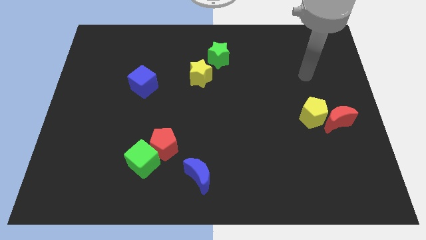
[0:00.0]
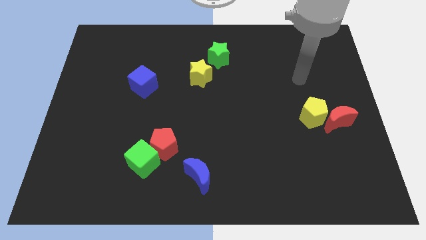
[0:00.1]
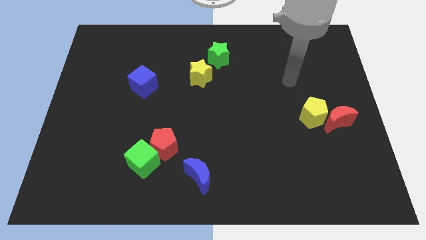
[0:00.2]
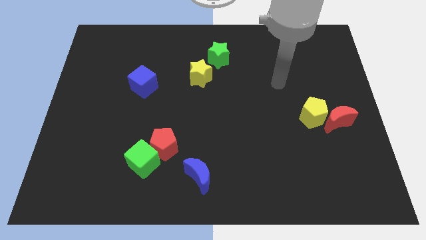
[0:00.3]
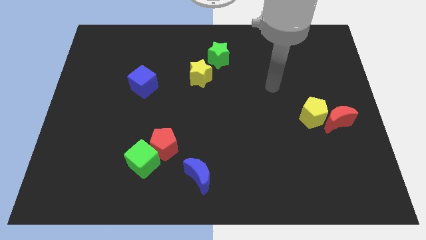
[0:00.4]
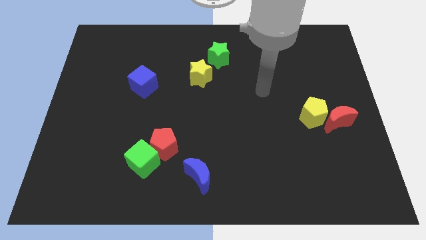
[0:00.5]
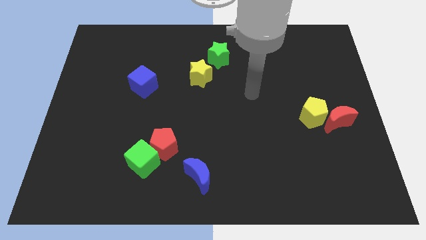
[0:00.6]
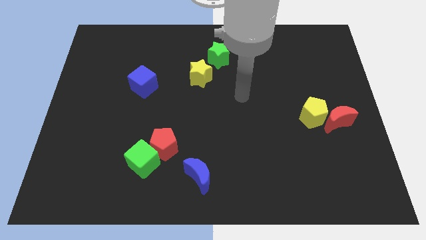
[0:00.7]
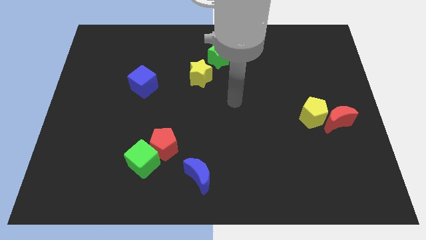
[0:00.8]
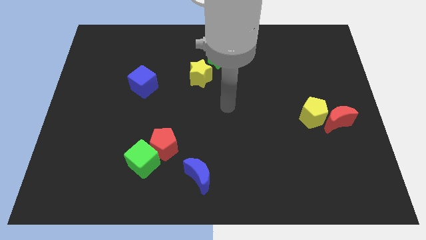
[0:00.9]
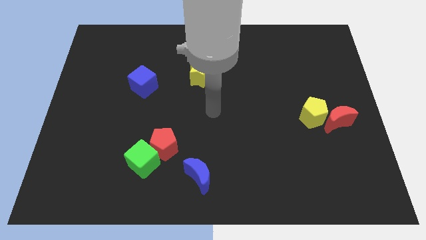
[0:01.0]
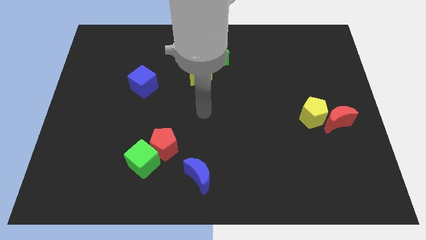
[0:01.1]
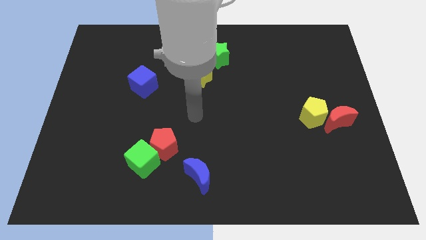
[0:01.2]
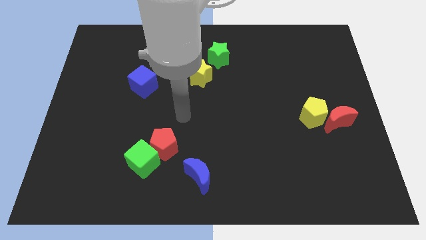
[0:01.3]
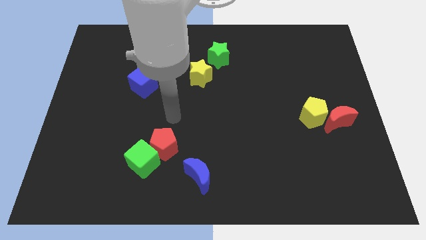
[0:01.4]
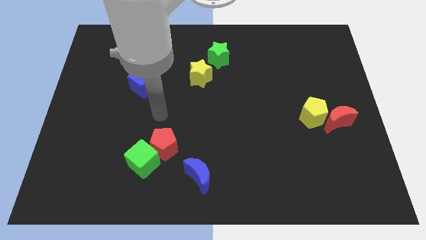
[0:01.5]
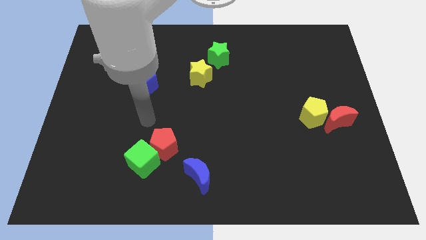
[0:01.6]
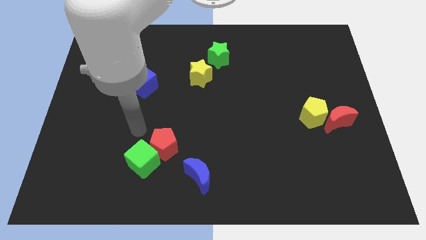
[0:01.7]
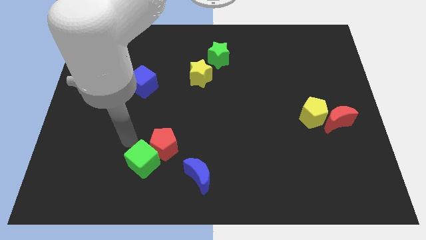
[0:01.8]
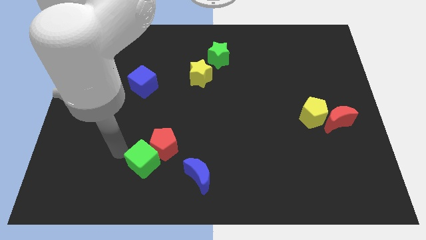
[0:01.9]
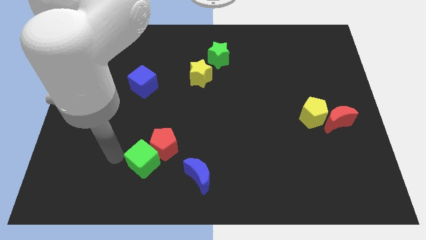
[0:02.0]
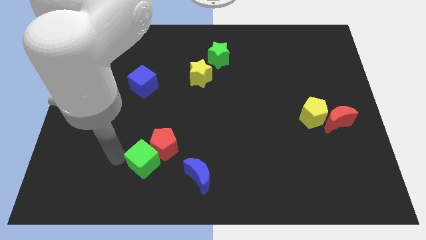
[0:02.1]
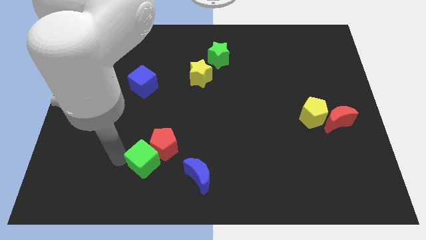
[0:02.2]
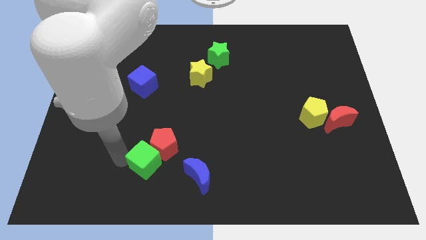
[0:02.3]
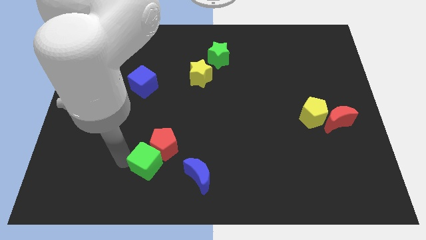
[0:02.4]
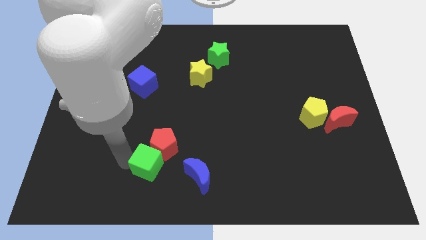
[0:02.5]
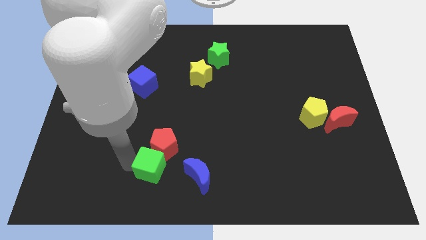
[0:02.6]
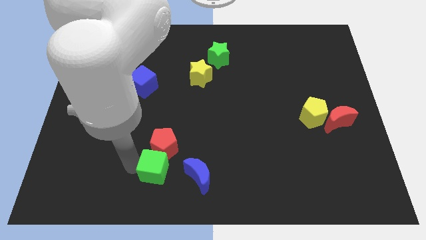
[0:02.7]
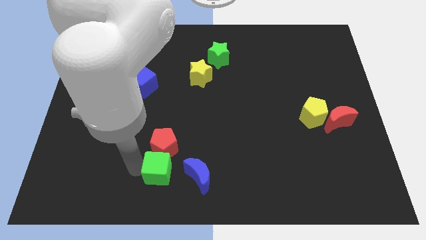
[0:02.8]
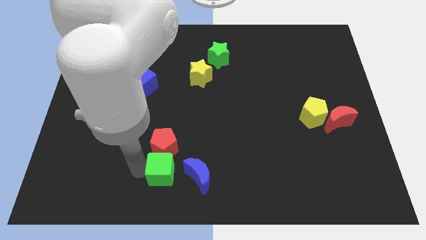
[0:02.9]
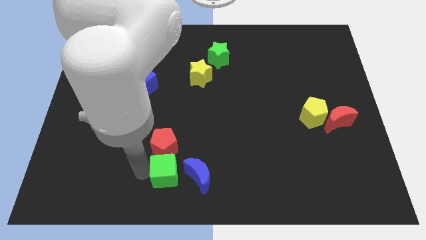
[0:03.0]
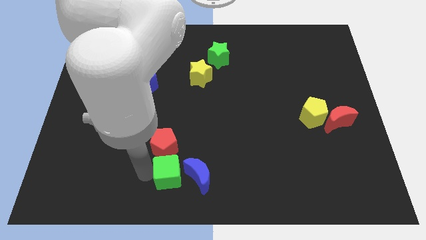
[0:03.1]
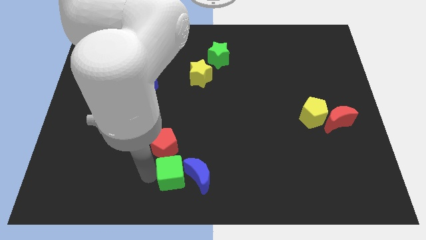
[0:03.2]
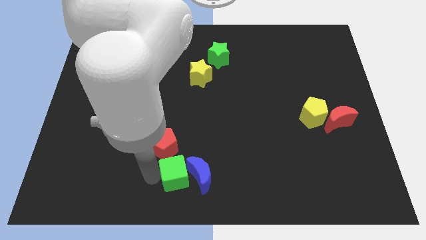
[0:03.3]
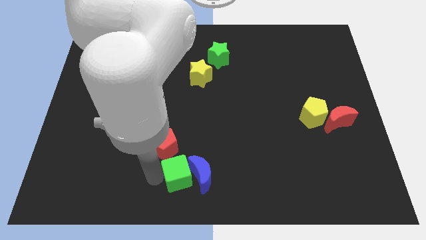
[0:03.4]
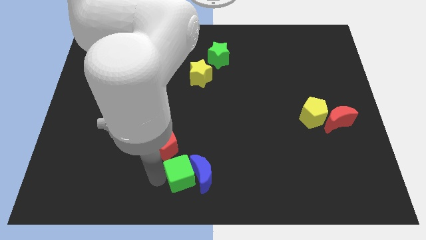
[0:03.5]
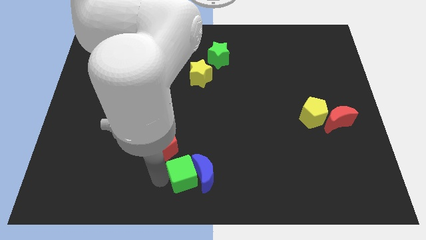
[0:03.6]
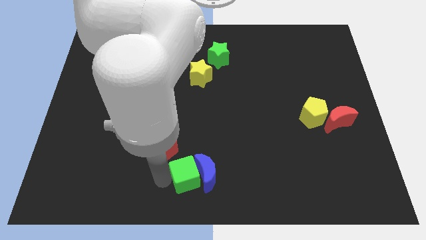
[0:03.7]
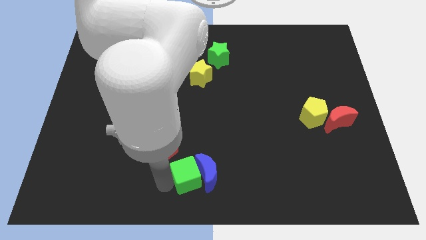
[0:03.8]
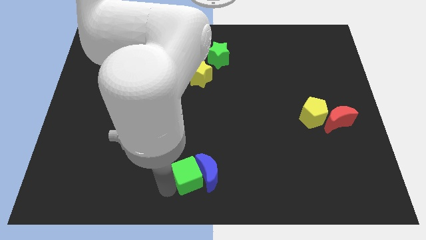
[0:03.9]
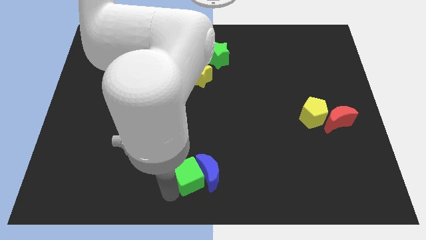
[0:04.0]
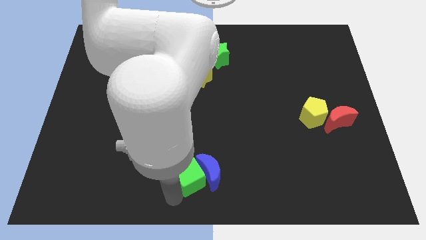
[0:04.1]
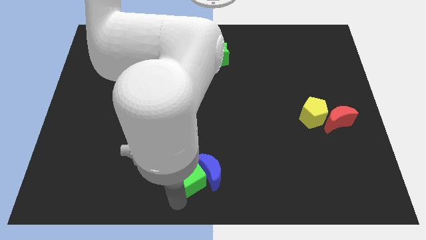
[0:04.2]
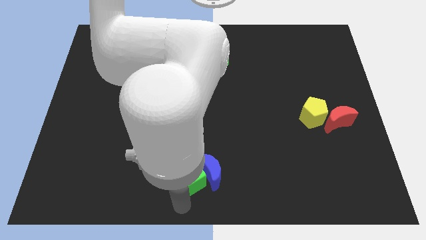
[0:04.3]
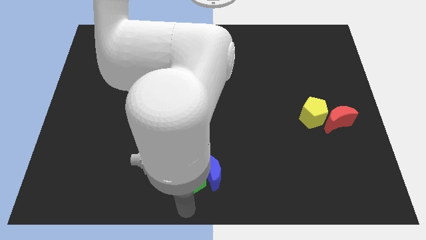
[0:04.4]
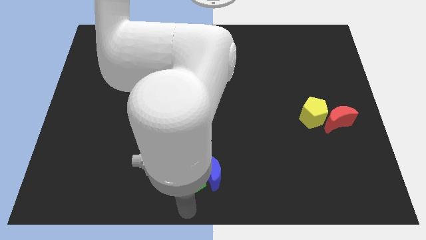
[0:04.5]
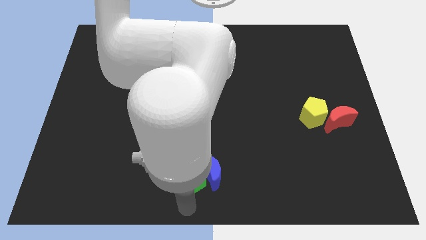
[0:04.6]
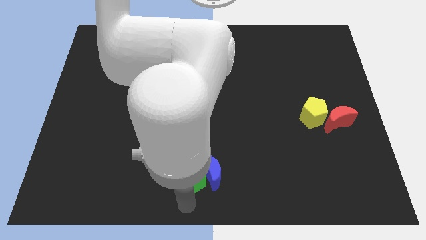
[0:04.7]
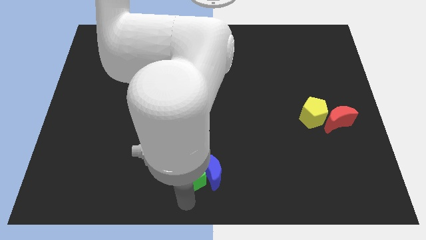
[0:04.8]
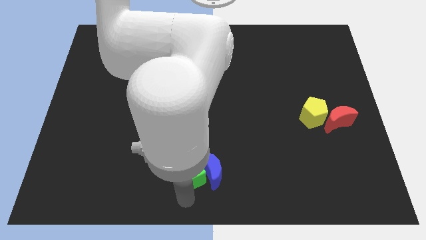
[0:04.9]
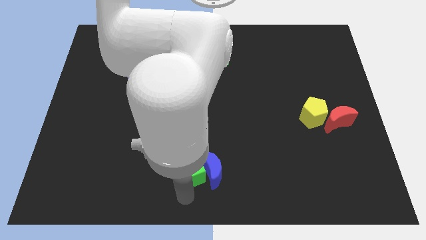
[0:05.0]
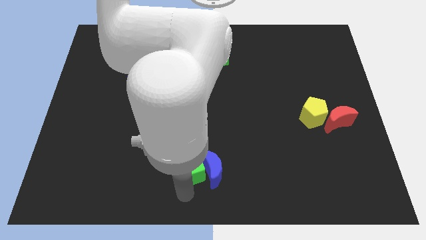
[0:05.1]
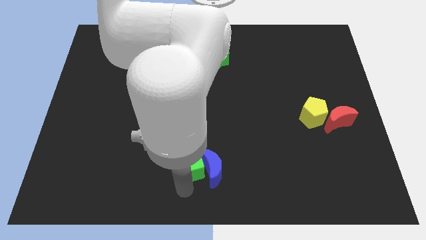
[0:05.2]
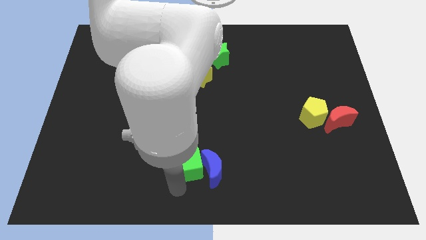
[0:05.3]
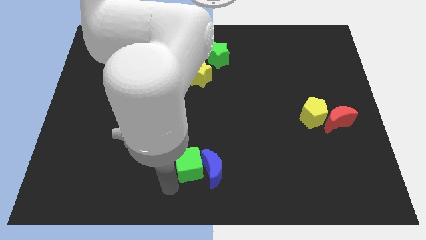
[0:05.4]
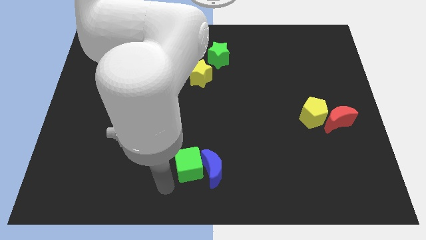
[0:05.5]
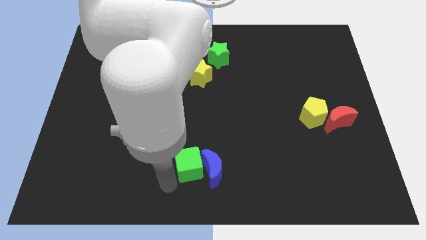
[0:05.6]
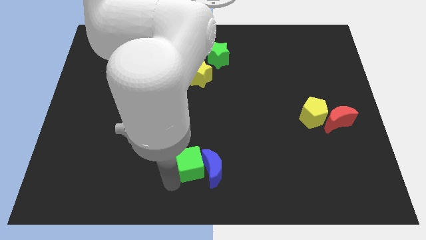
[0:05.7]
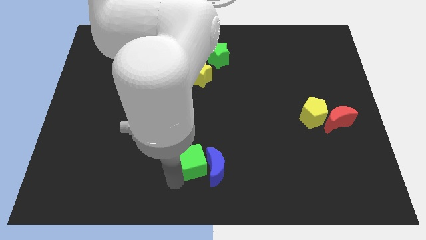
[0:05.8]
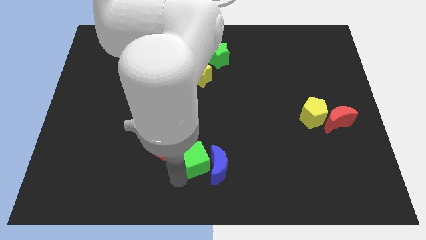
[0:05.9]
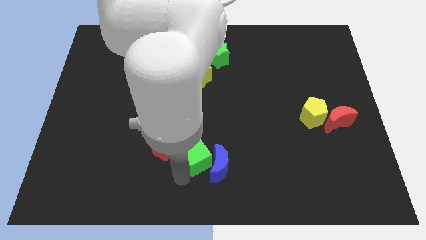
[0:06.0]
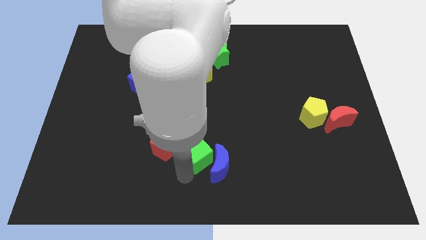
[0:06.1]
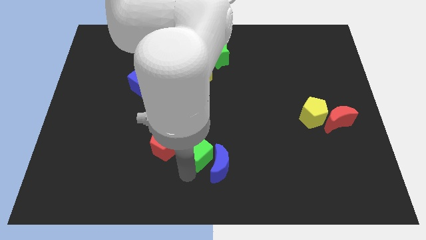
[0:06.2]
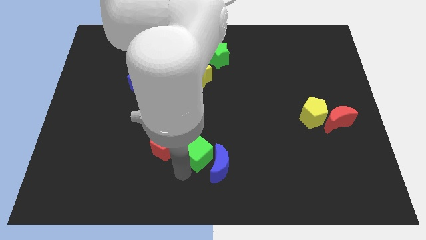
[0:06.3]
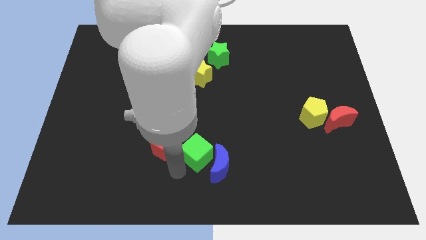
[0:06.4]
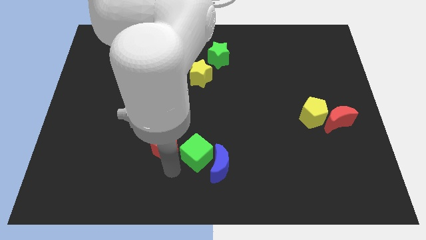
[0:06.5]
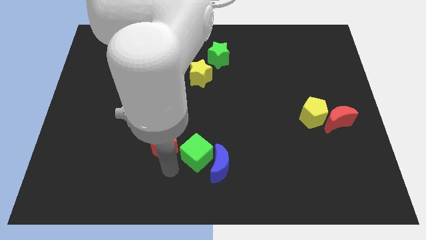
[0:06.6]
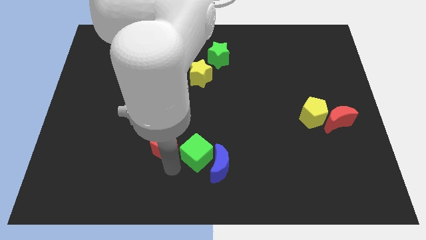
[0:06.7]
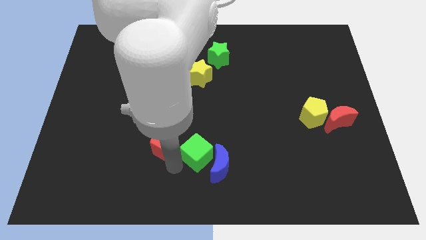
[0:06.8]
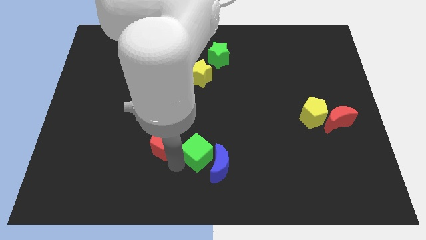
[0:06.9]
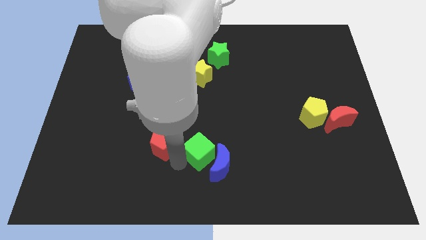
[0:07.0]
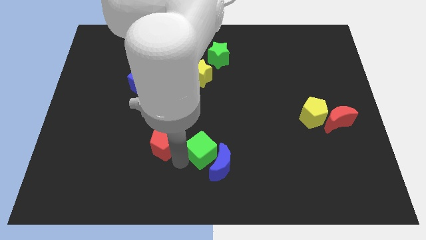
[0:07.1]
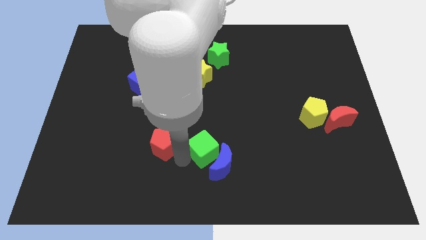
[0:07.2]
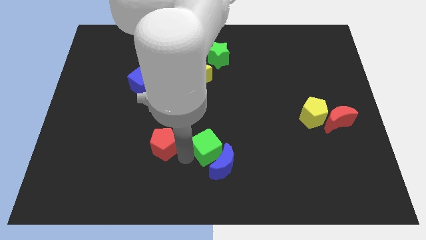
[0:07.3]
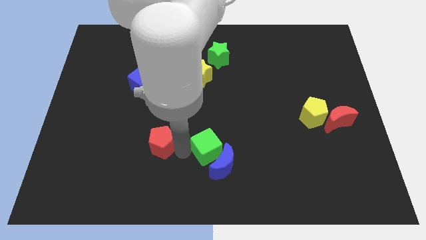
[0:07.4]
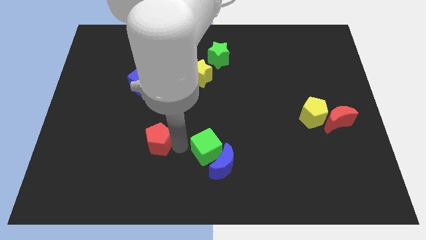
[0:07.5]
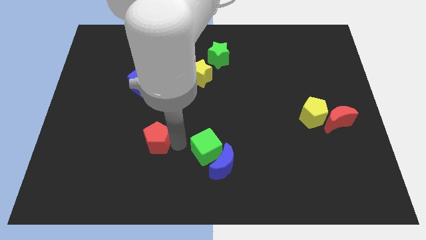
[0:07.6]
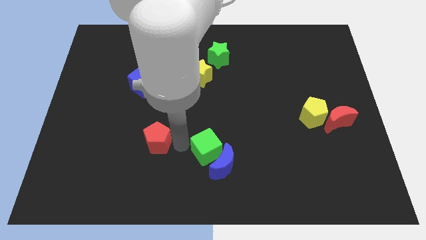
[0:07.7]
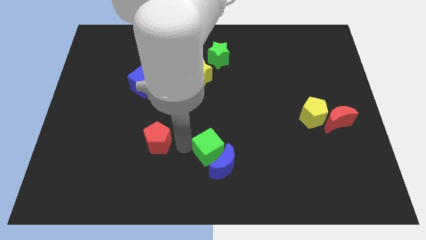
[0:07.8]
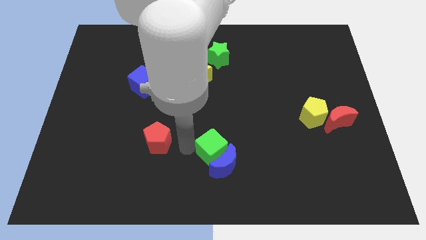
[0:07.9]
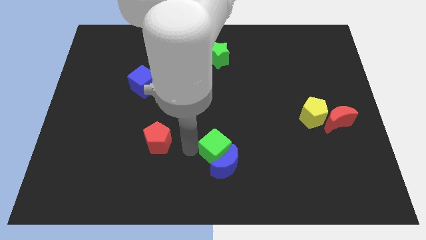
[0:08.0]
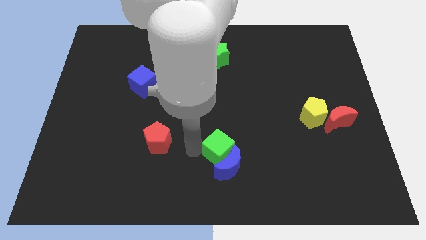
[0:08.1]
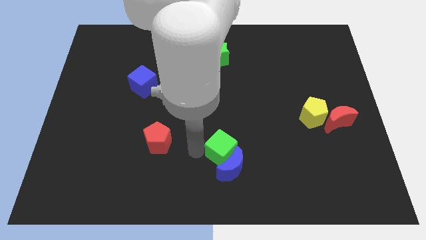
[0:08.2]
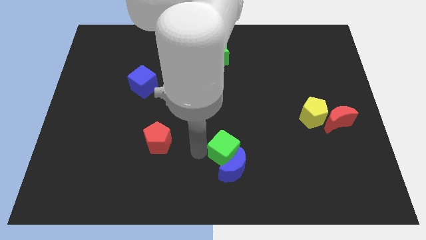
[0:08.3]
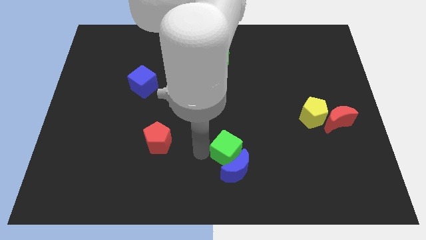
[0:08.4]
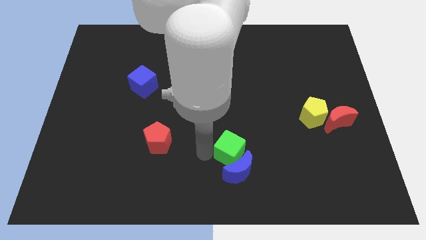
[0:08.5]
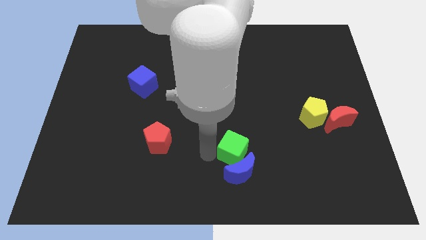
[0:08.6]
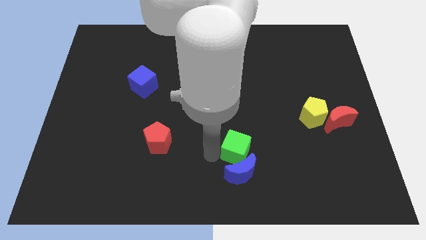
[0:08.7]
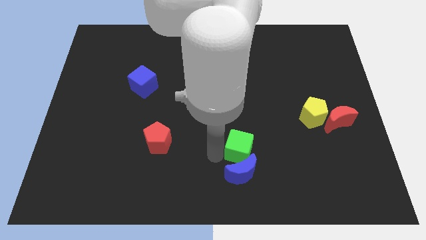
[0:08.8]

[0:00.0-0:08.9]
slide the green cube to the right
